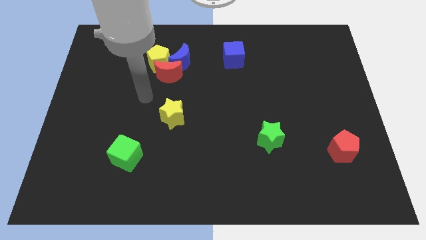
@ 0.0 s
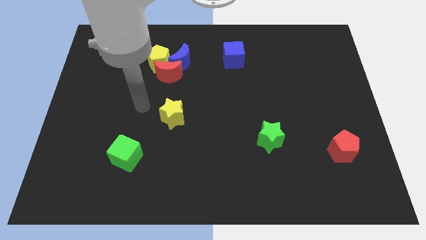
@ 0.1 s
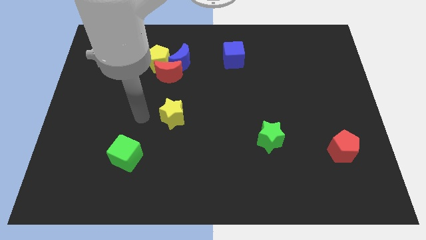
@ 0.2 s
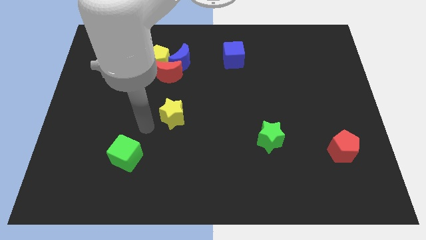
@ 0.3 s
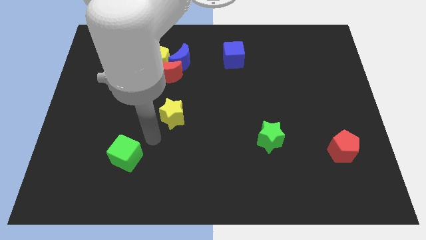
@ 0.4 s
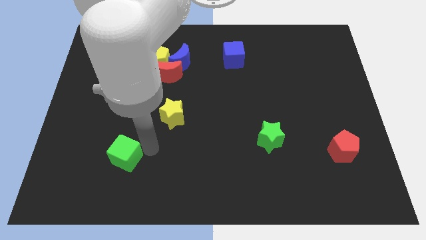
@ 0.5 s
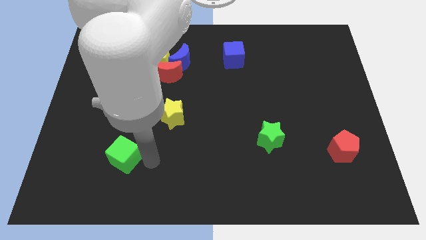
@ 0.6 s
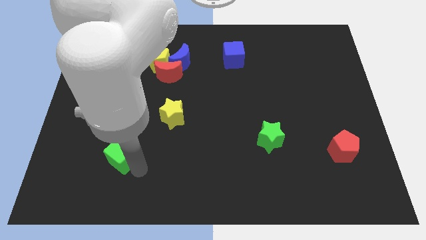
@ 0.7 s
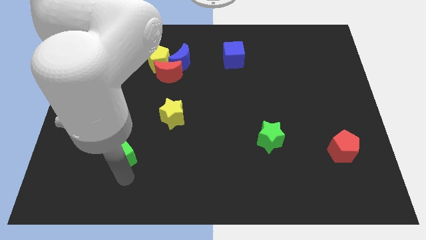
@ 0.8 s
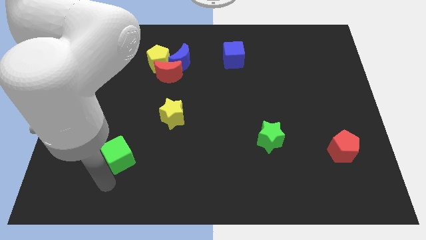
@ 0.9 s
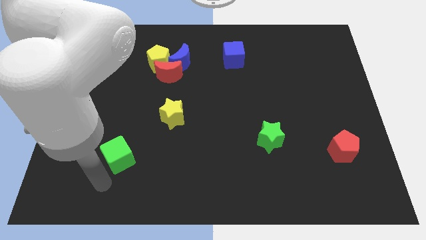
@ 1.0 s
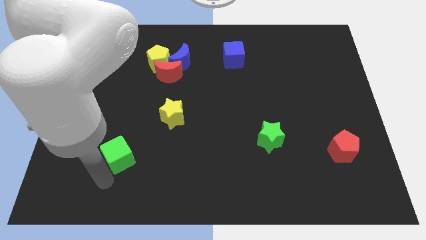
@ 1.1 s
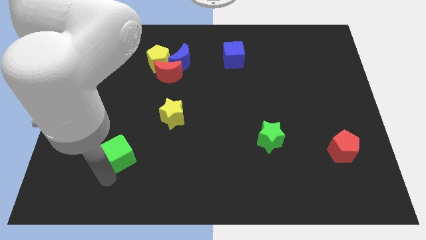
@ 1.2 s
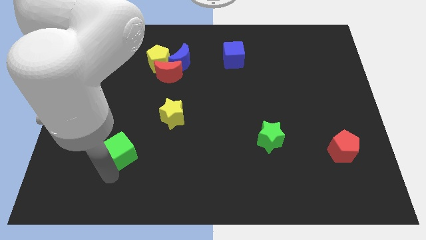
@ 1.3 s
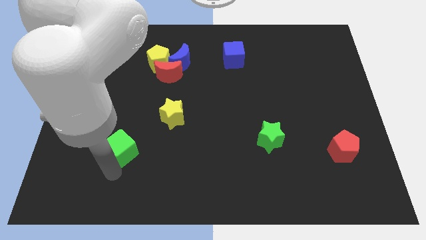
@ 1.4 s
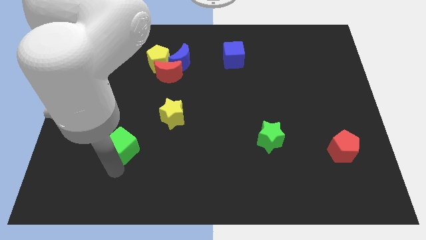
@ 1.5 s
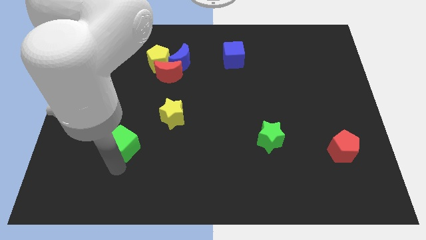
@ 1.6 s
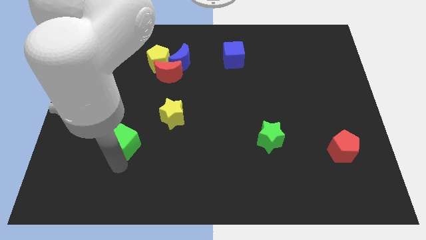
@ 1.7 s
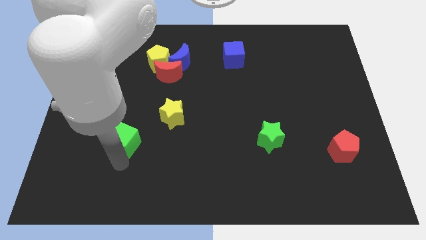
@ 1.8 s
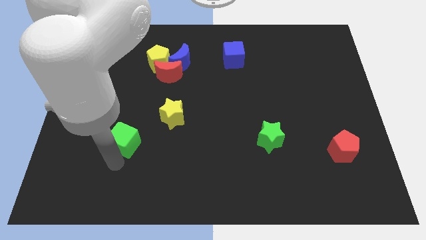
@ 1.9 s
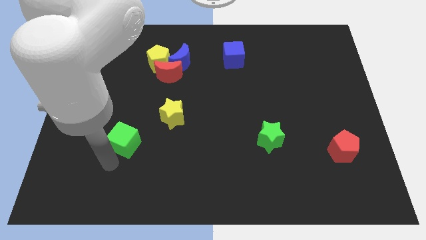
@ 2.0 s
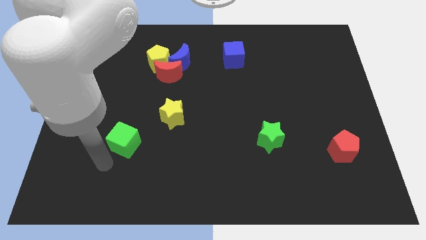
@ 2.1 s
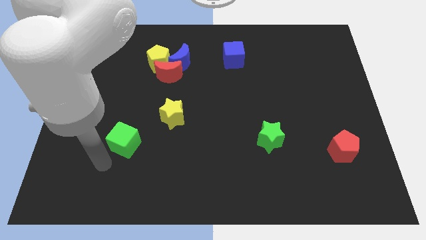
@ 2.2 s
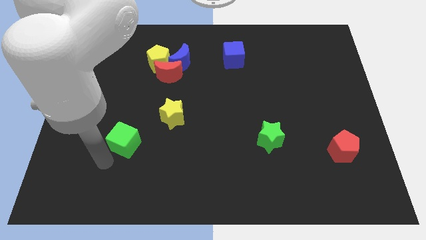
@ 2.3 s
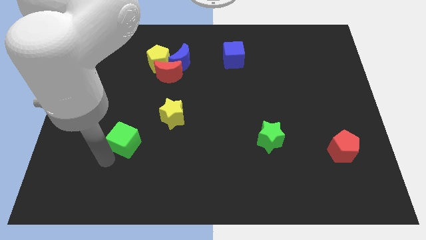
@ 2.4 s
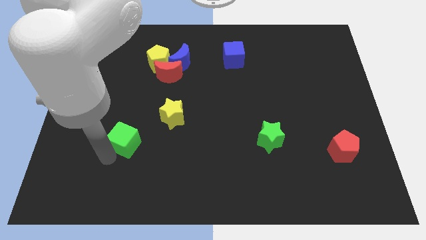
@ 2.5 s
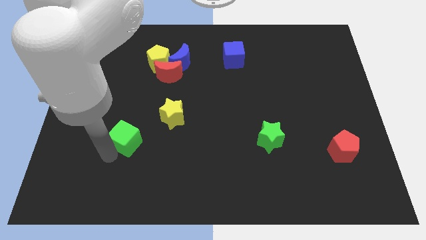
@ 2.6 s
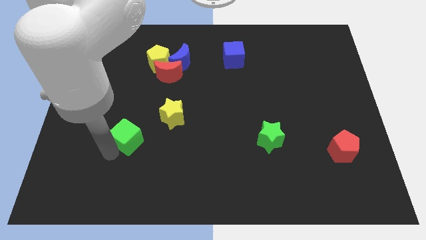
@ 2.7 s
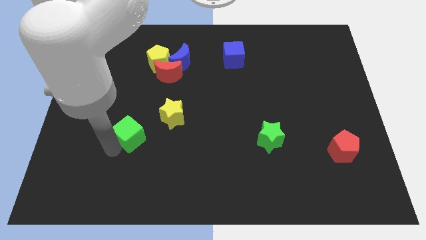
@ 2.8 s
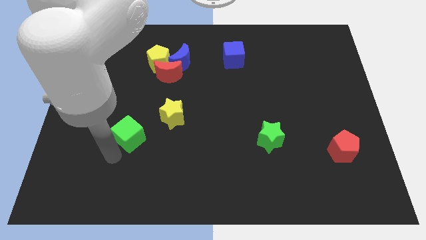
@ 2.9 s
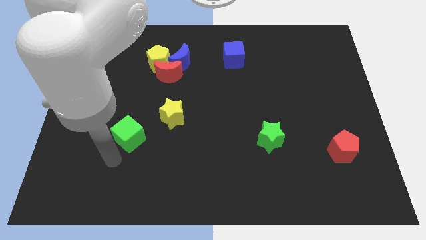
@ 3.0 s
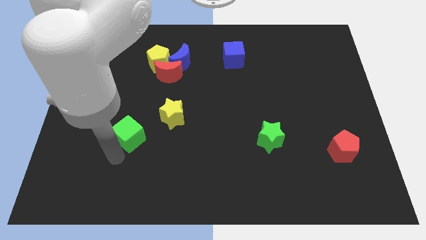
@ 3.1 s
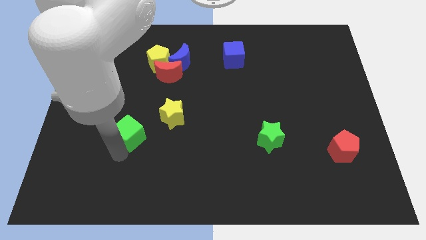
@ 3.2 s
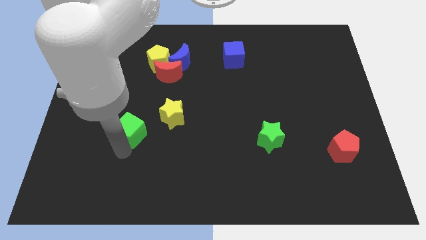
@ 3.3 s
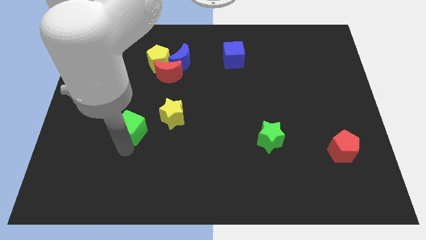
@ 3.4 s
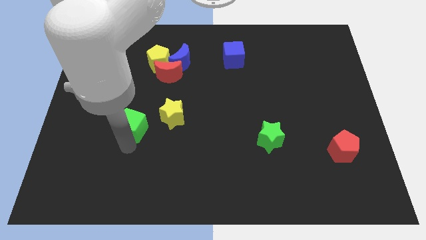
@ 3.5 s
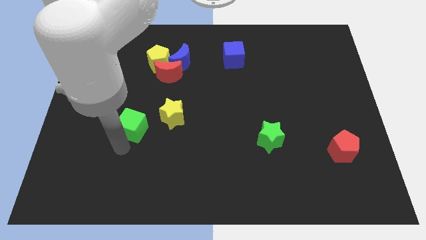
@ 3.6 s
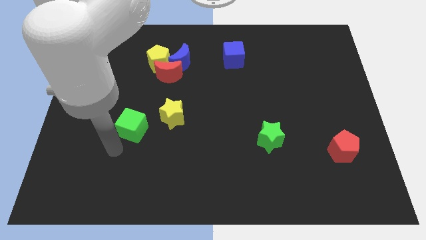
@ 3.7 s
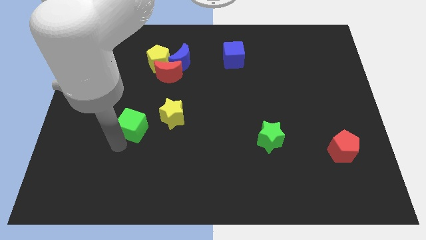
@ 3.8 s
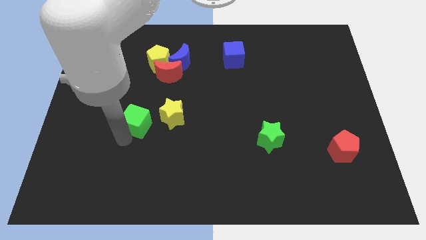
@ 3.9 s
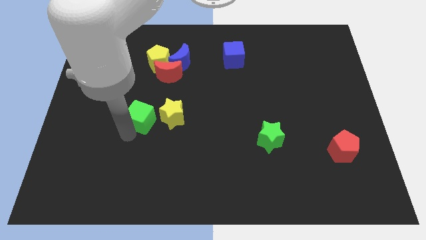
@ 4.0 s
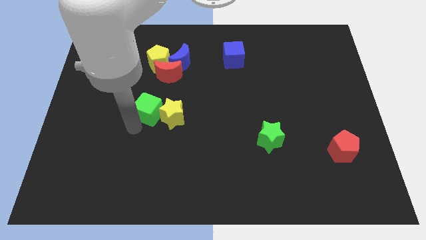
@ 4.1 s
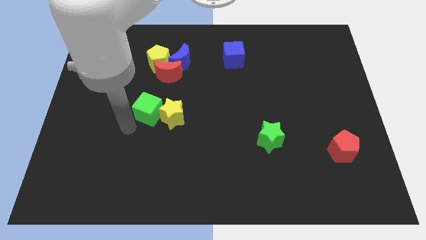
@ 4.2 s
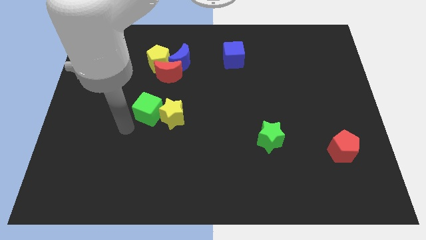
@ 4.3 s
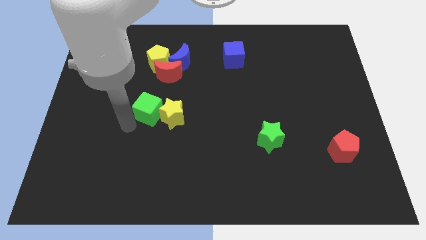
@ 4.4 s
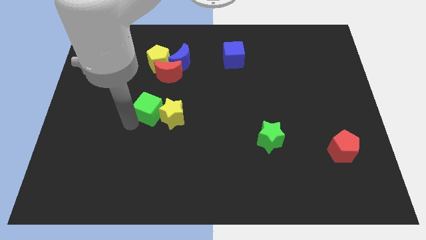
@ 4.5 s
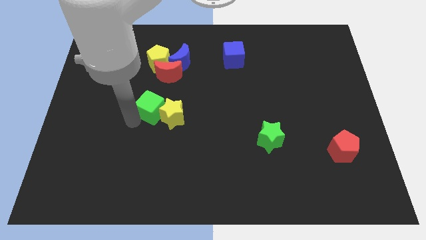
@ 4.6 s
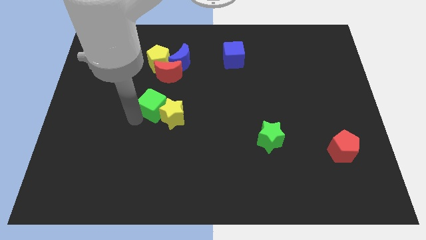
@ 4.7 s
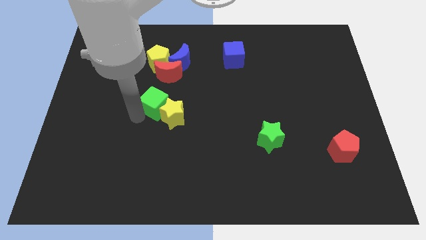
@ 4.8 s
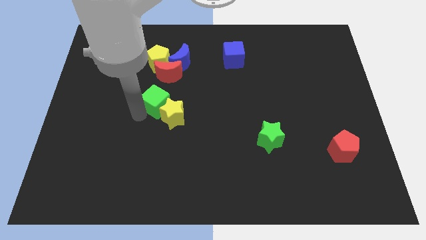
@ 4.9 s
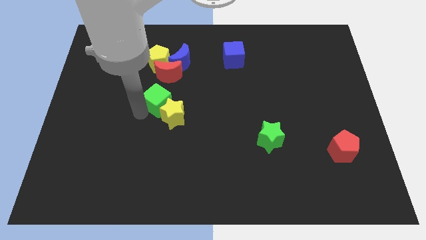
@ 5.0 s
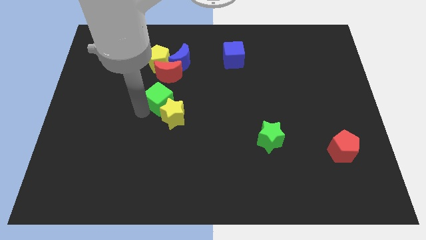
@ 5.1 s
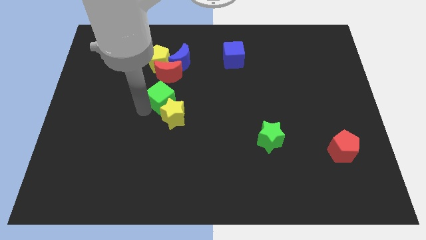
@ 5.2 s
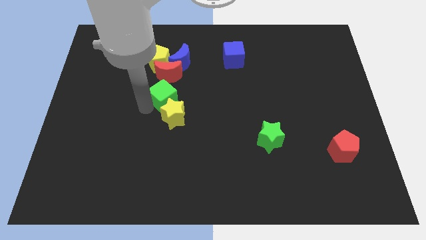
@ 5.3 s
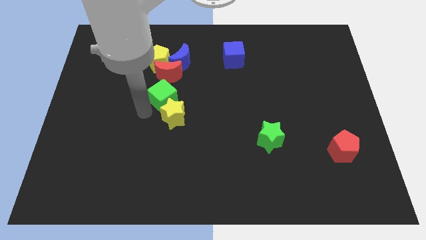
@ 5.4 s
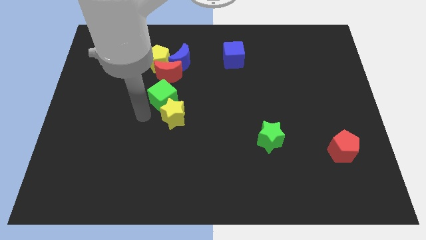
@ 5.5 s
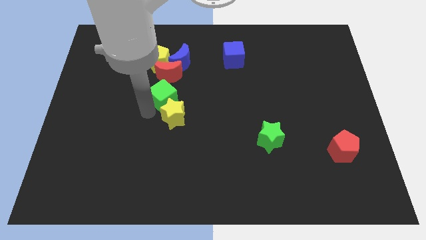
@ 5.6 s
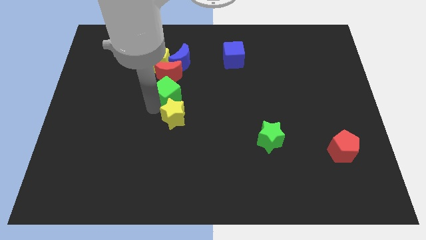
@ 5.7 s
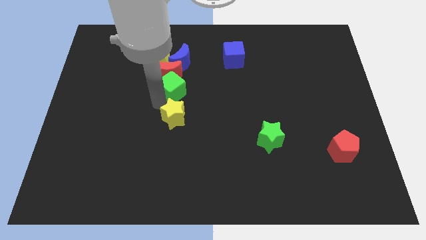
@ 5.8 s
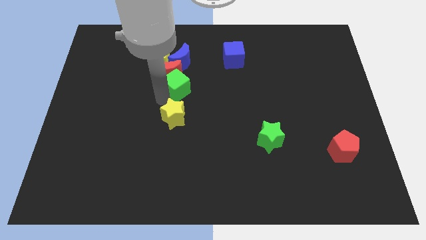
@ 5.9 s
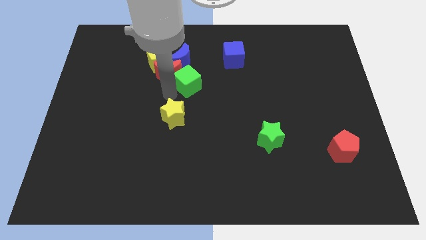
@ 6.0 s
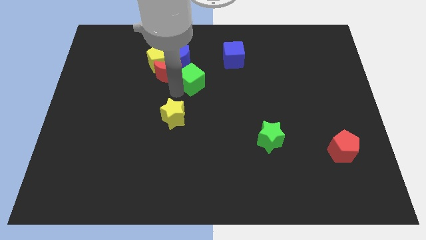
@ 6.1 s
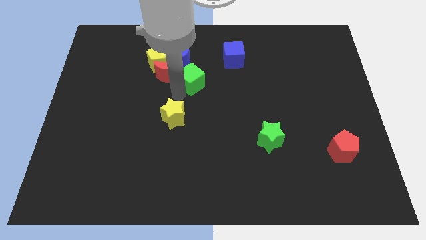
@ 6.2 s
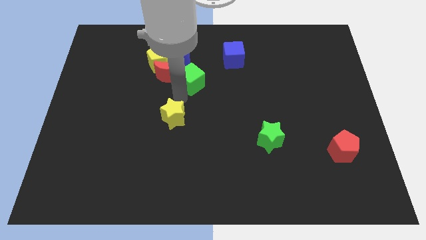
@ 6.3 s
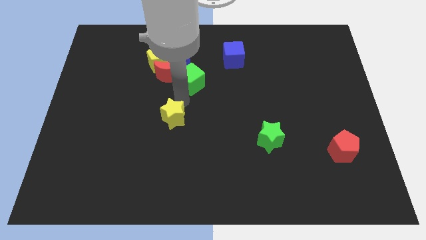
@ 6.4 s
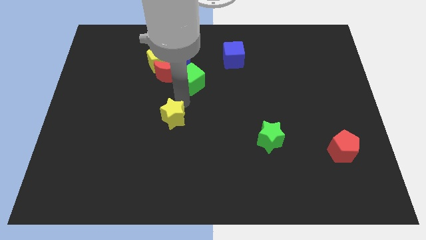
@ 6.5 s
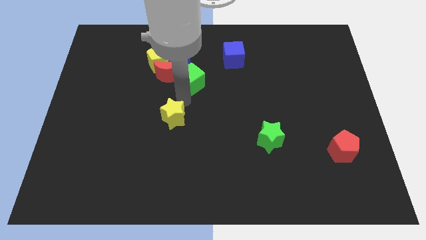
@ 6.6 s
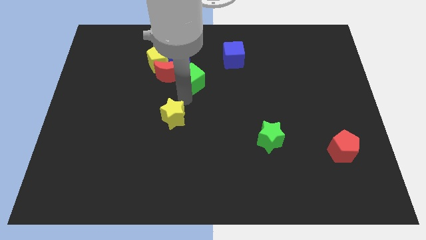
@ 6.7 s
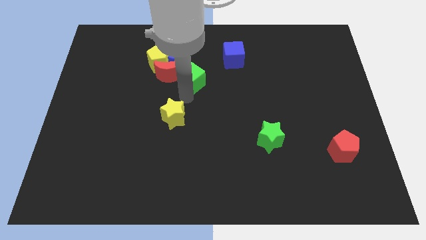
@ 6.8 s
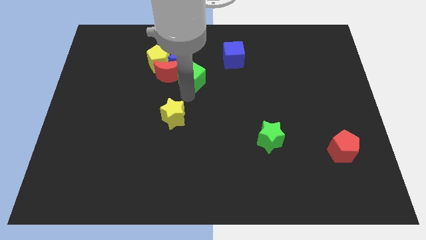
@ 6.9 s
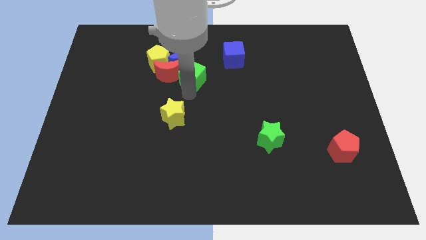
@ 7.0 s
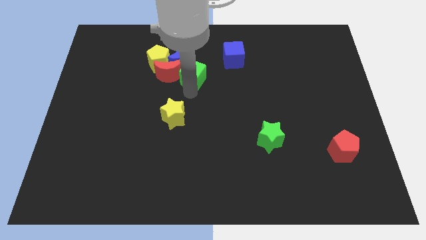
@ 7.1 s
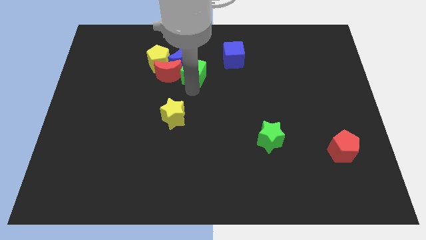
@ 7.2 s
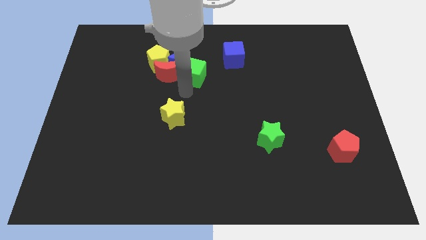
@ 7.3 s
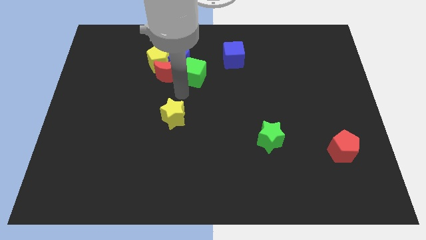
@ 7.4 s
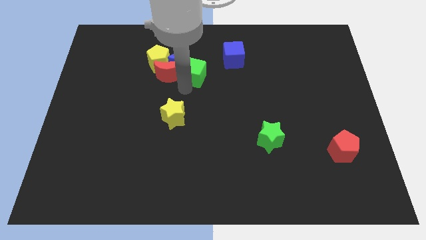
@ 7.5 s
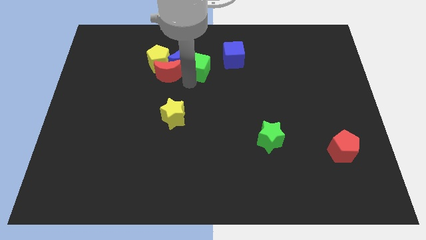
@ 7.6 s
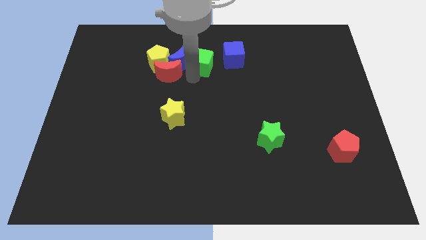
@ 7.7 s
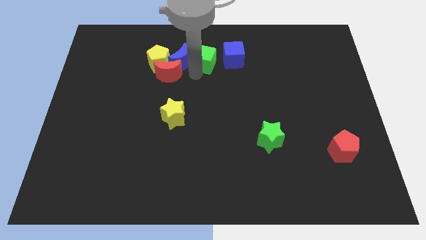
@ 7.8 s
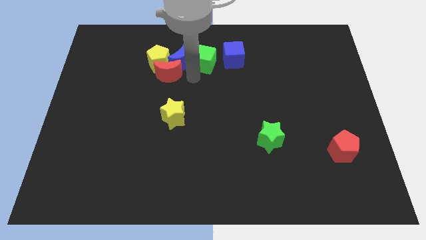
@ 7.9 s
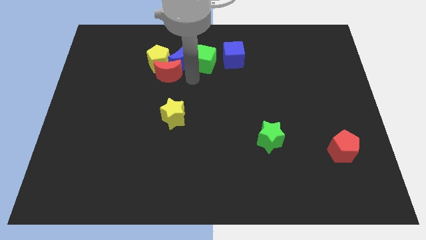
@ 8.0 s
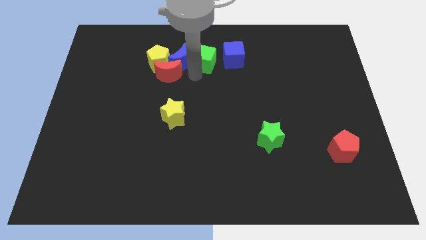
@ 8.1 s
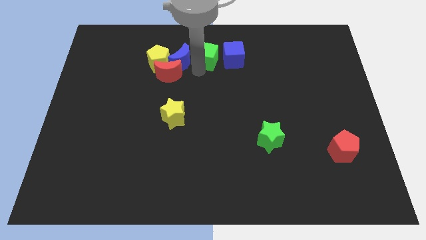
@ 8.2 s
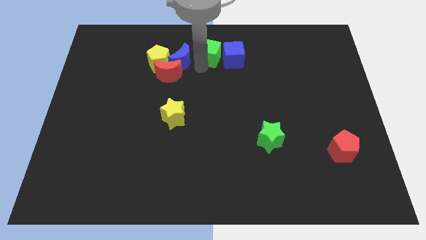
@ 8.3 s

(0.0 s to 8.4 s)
put the green cube to the top side
